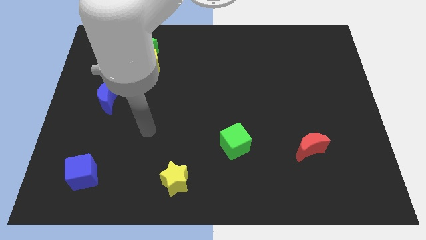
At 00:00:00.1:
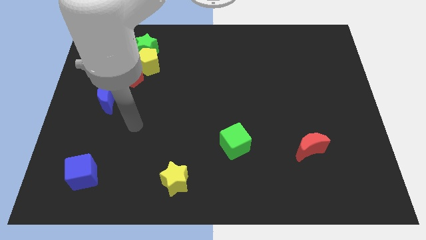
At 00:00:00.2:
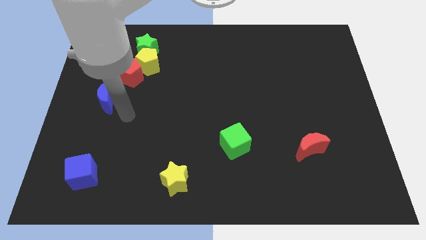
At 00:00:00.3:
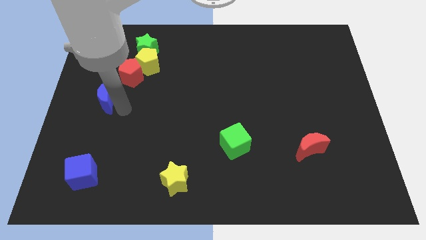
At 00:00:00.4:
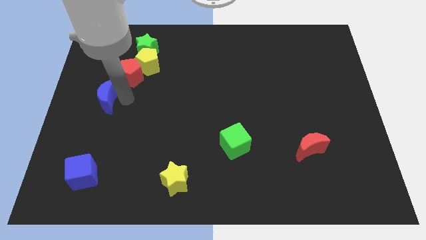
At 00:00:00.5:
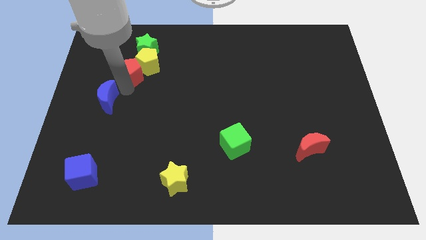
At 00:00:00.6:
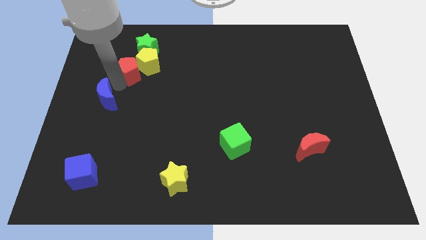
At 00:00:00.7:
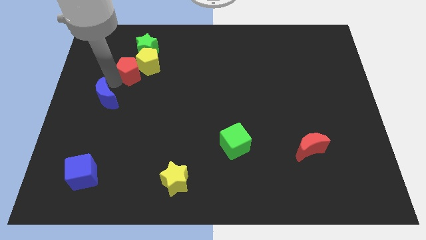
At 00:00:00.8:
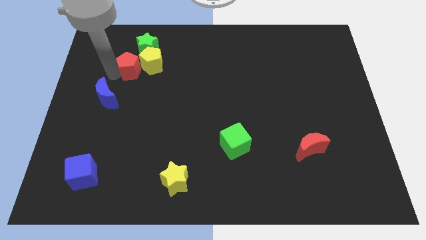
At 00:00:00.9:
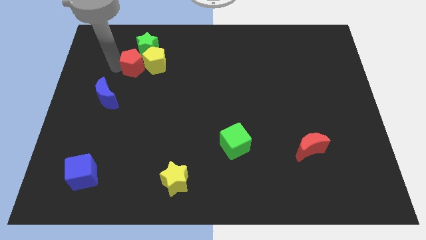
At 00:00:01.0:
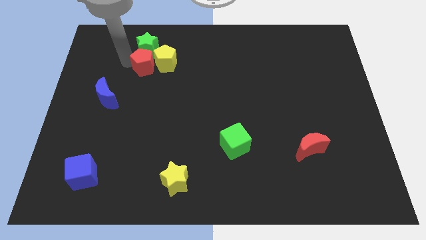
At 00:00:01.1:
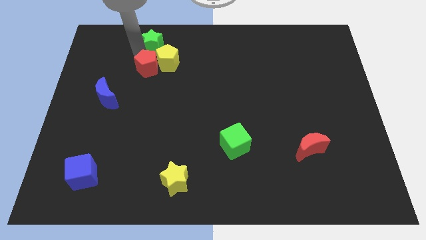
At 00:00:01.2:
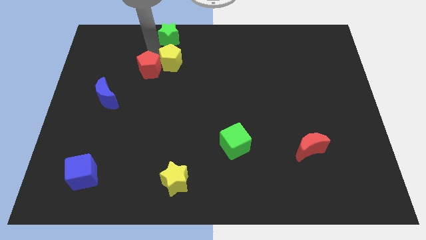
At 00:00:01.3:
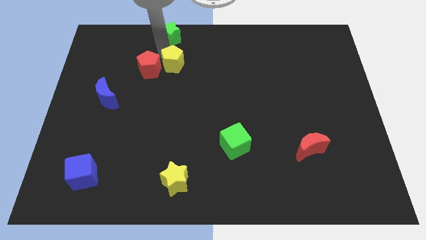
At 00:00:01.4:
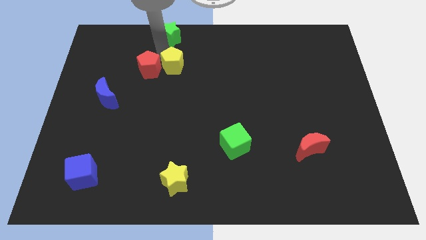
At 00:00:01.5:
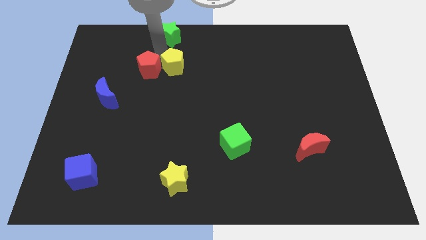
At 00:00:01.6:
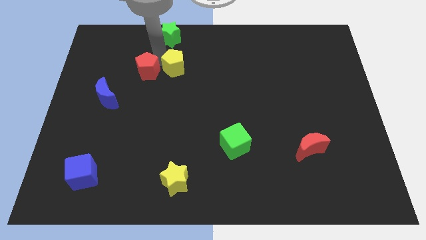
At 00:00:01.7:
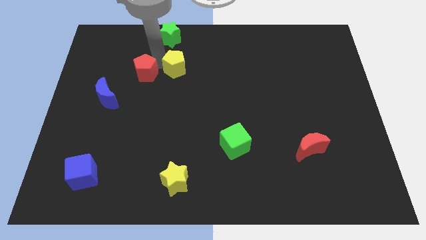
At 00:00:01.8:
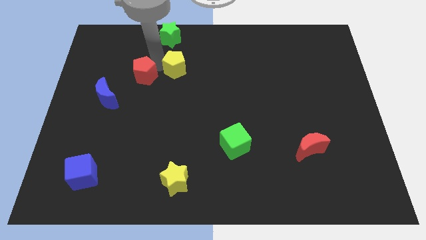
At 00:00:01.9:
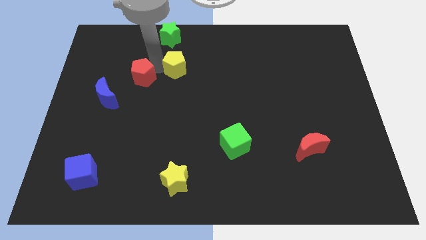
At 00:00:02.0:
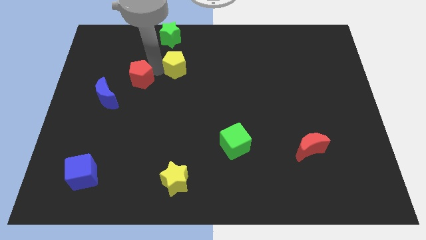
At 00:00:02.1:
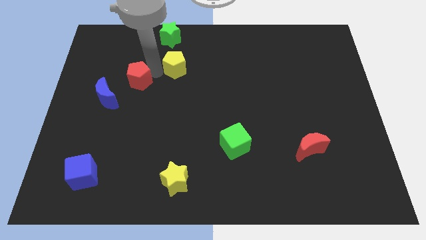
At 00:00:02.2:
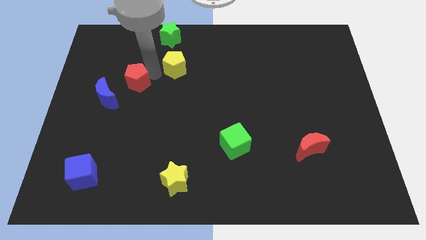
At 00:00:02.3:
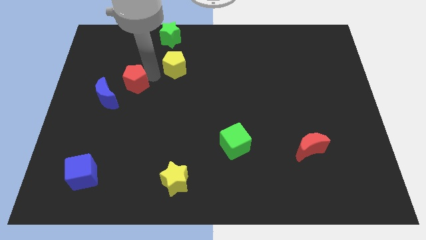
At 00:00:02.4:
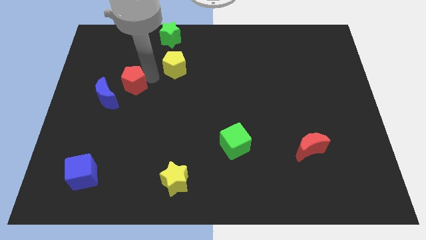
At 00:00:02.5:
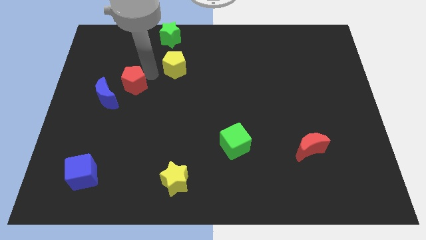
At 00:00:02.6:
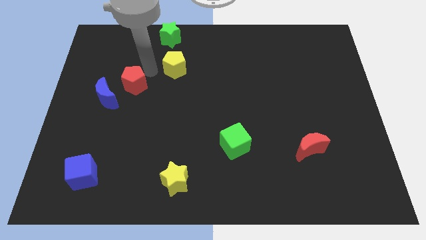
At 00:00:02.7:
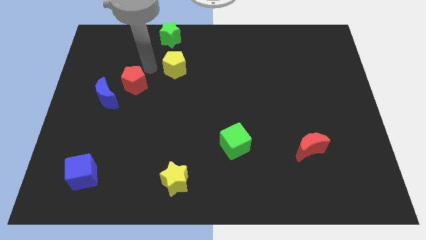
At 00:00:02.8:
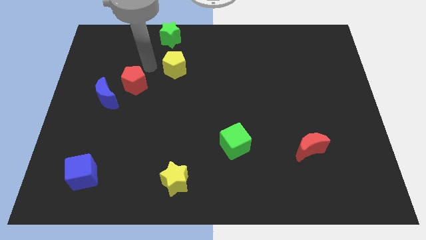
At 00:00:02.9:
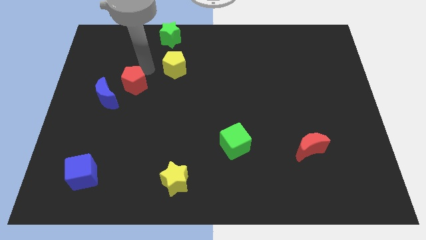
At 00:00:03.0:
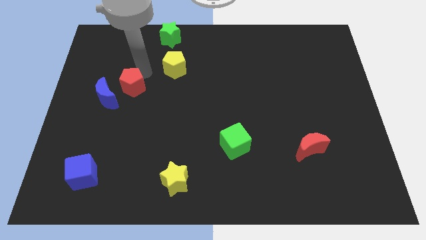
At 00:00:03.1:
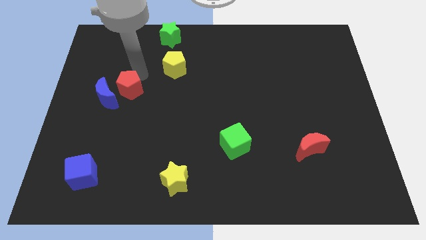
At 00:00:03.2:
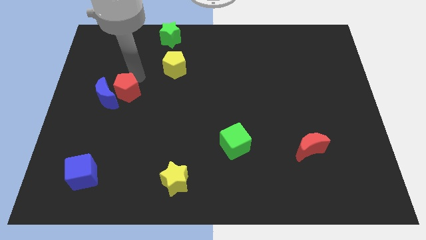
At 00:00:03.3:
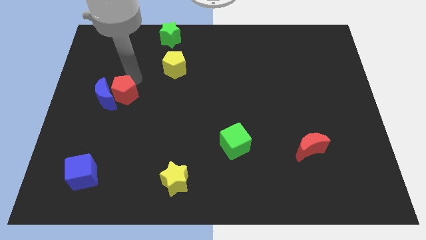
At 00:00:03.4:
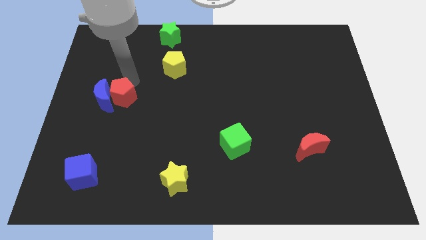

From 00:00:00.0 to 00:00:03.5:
move the red pentagon a bit downwards

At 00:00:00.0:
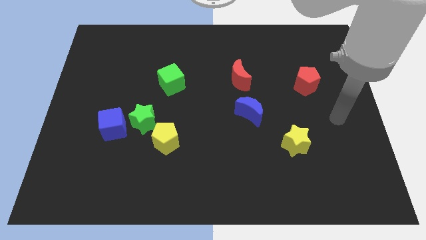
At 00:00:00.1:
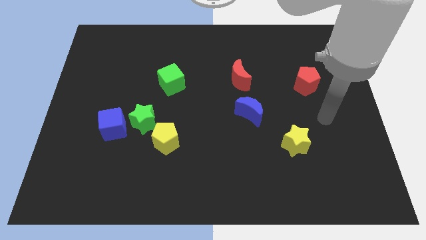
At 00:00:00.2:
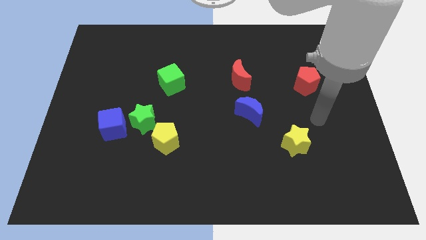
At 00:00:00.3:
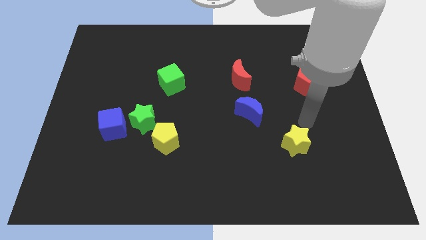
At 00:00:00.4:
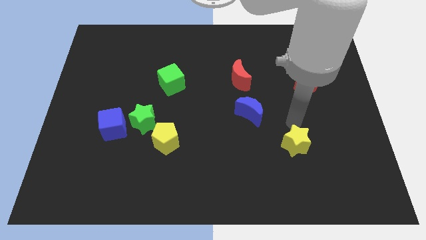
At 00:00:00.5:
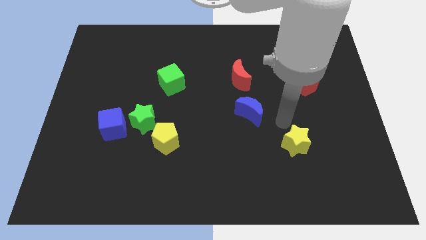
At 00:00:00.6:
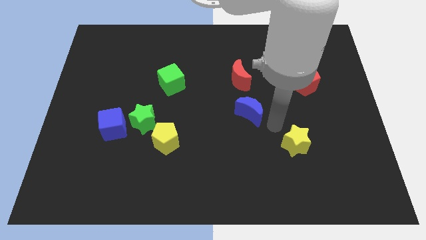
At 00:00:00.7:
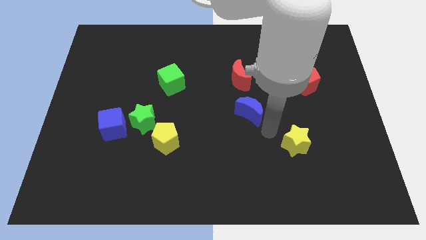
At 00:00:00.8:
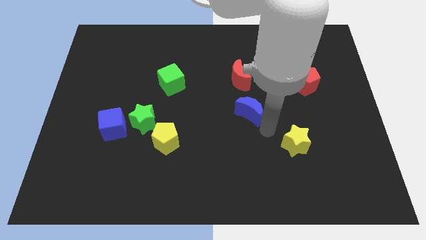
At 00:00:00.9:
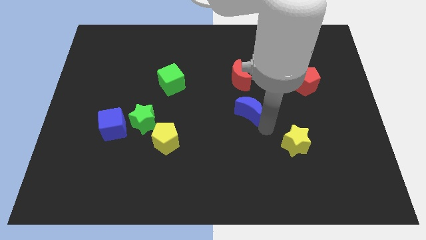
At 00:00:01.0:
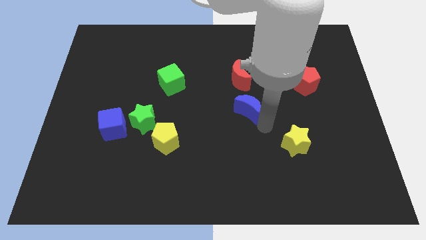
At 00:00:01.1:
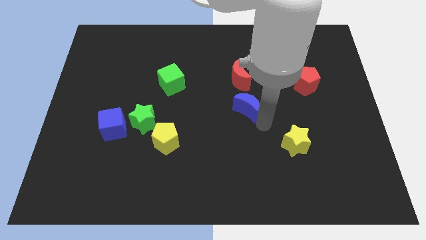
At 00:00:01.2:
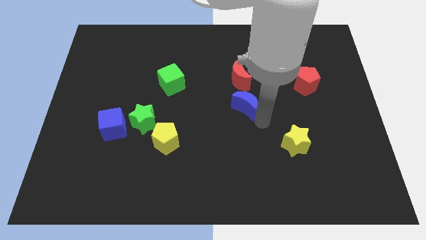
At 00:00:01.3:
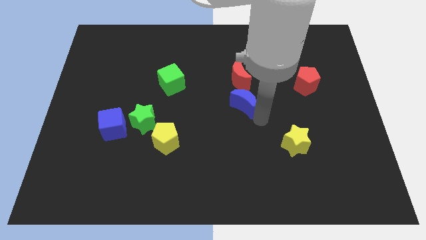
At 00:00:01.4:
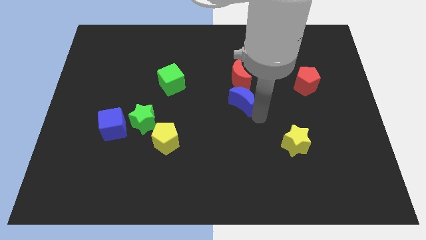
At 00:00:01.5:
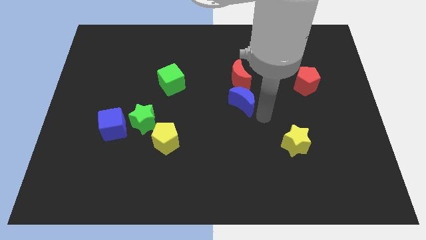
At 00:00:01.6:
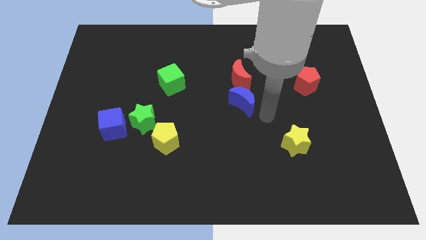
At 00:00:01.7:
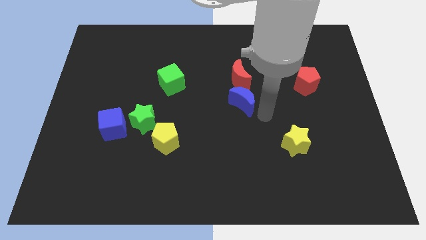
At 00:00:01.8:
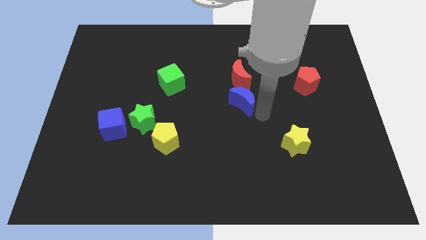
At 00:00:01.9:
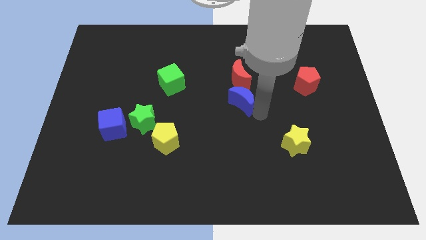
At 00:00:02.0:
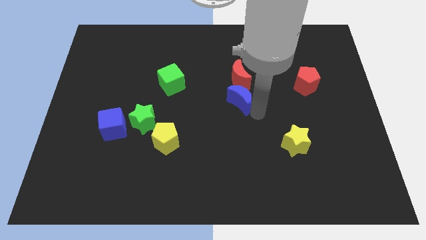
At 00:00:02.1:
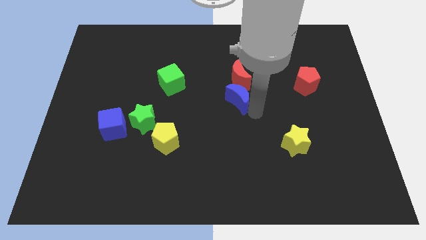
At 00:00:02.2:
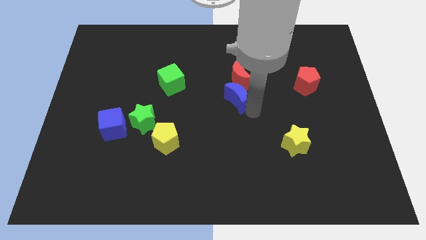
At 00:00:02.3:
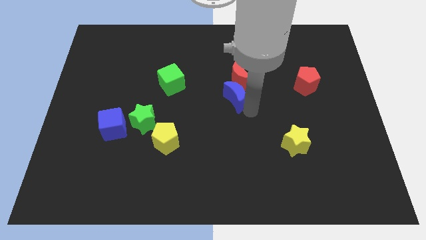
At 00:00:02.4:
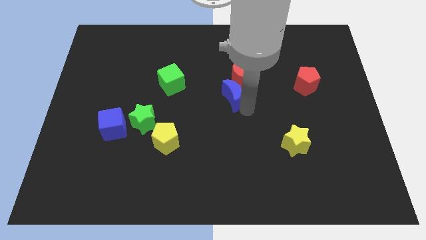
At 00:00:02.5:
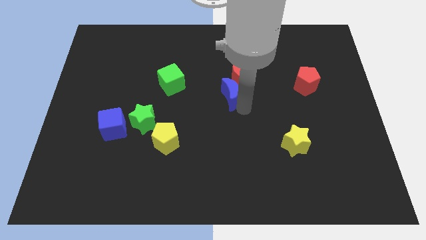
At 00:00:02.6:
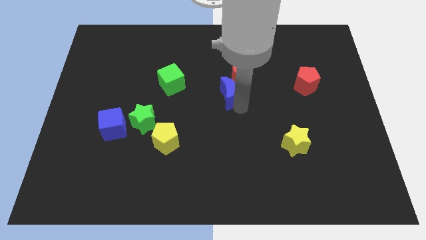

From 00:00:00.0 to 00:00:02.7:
slide the blue moon a little up and left

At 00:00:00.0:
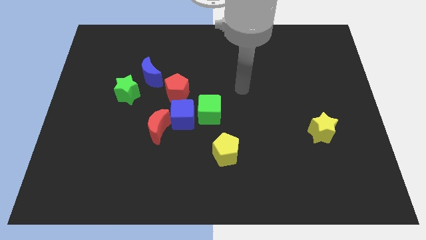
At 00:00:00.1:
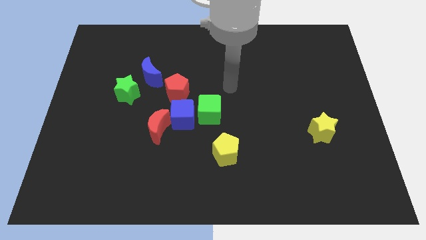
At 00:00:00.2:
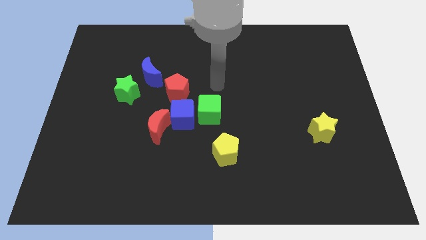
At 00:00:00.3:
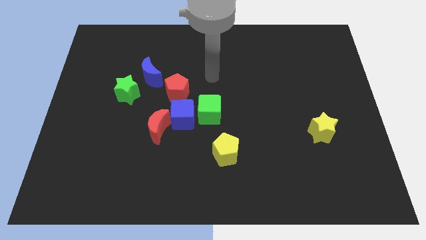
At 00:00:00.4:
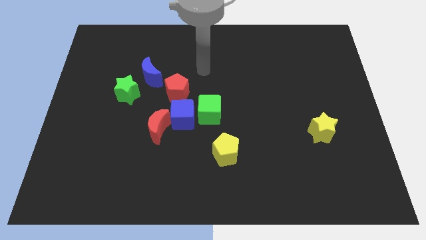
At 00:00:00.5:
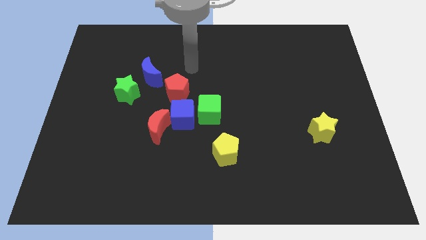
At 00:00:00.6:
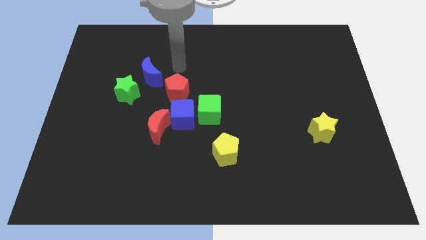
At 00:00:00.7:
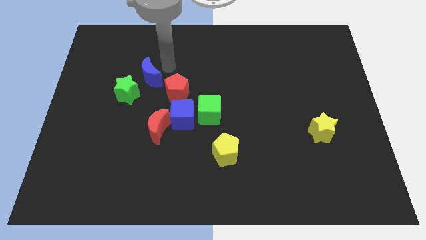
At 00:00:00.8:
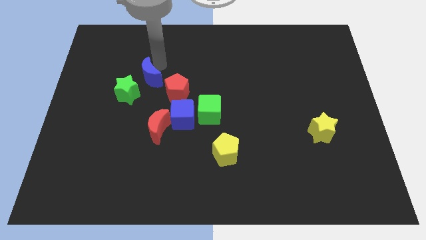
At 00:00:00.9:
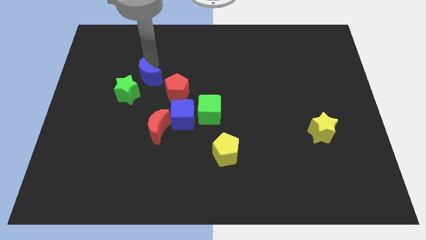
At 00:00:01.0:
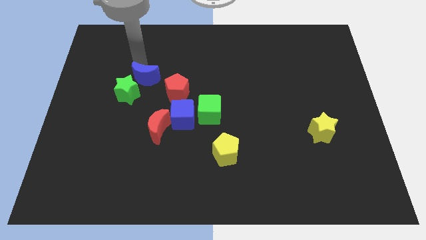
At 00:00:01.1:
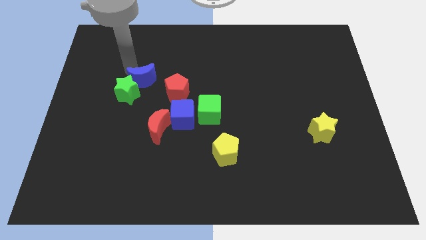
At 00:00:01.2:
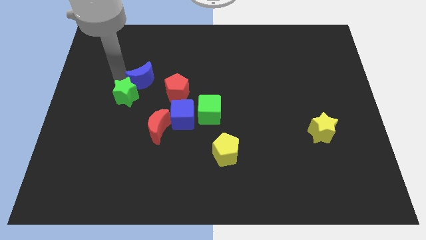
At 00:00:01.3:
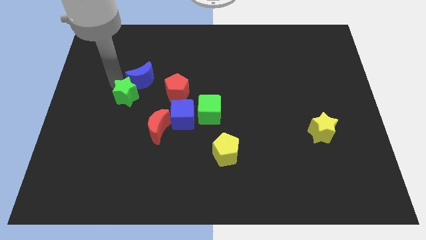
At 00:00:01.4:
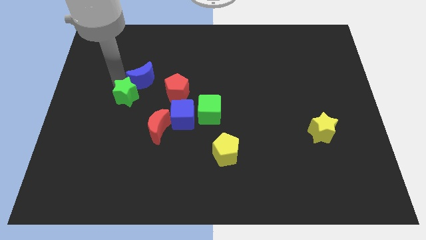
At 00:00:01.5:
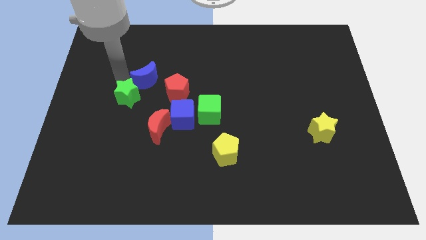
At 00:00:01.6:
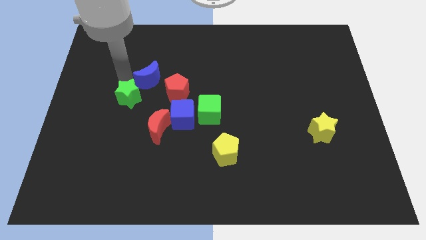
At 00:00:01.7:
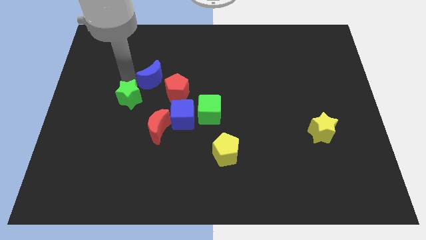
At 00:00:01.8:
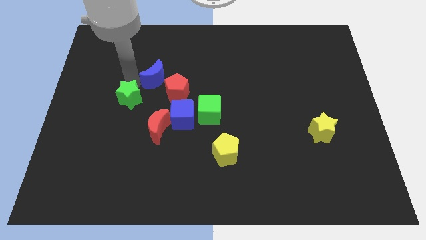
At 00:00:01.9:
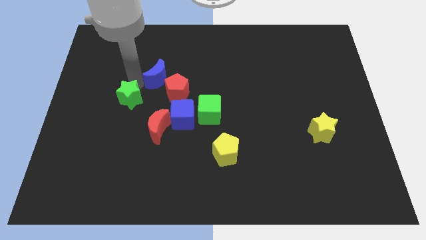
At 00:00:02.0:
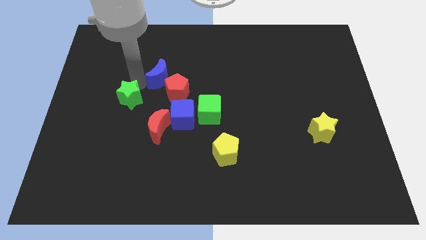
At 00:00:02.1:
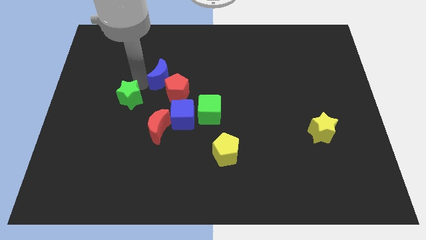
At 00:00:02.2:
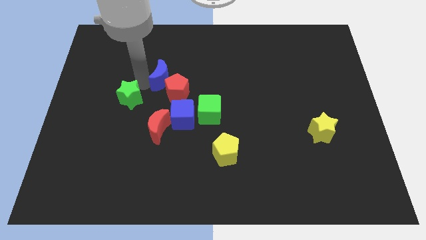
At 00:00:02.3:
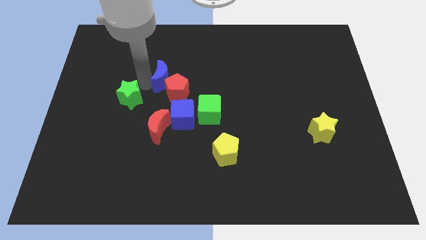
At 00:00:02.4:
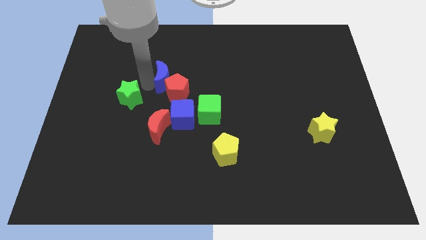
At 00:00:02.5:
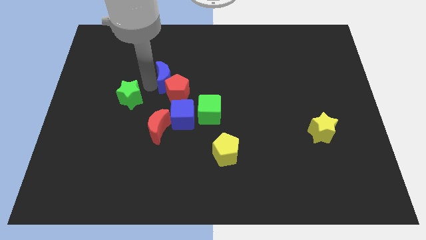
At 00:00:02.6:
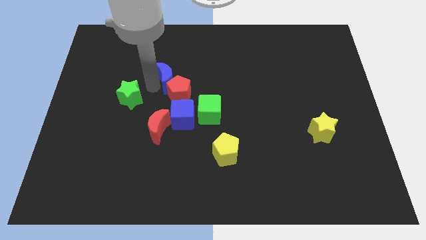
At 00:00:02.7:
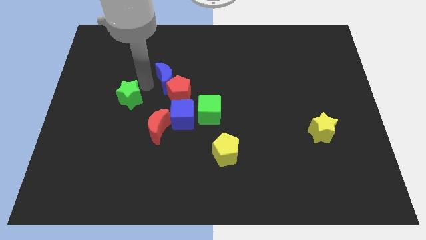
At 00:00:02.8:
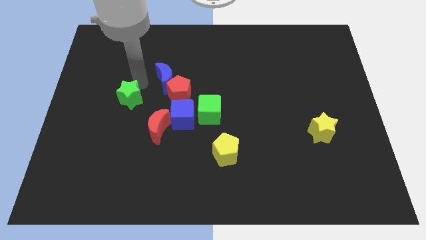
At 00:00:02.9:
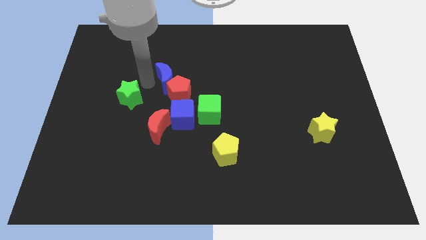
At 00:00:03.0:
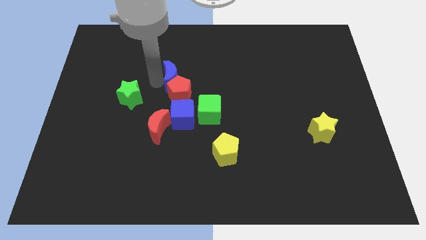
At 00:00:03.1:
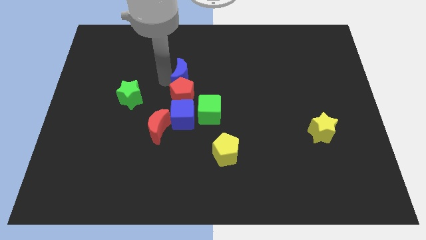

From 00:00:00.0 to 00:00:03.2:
slide the blue moon right a bit
